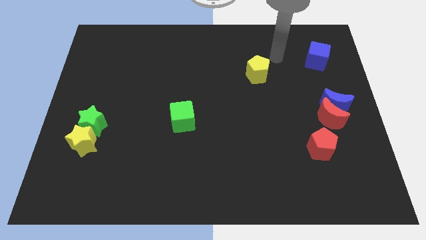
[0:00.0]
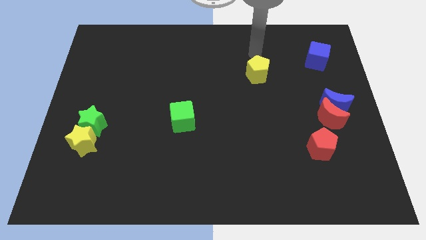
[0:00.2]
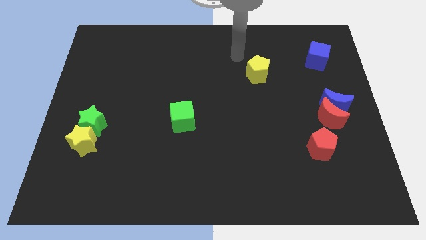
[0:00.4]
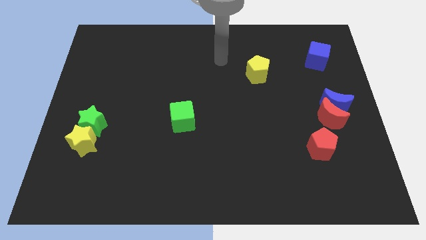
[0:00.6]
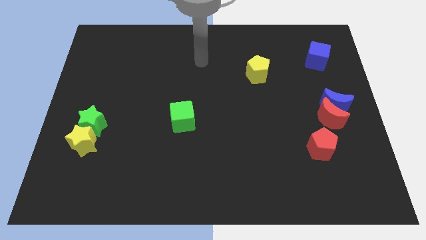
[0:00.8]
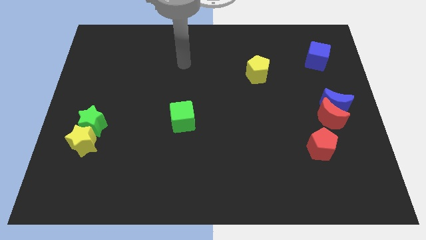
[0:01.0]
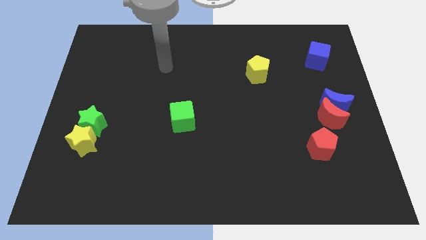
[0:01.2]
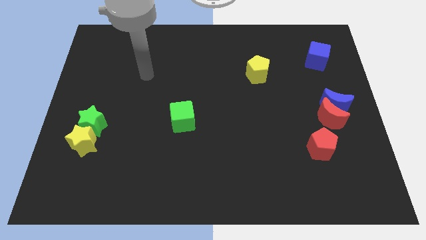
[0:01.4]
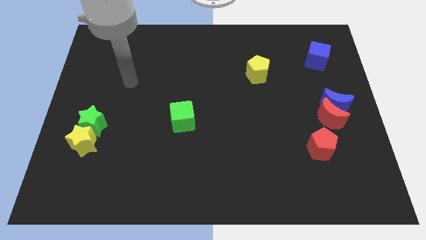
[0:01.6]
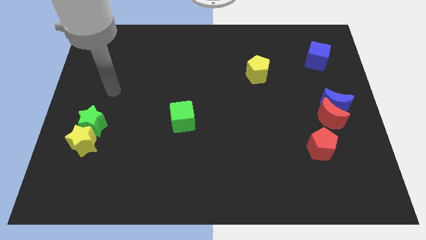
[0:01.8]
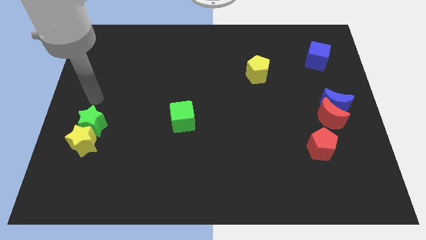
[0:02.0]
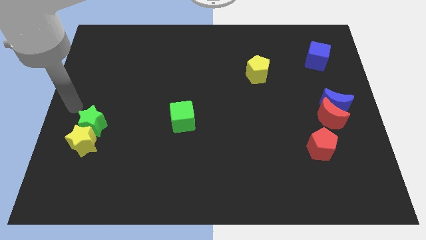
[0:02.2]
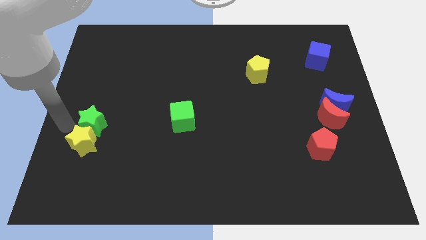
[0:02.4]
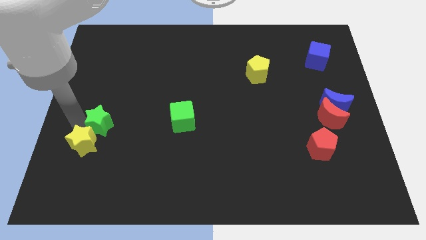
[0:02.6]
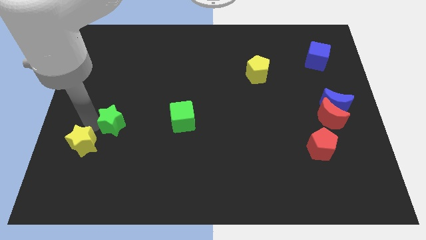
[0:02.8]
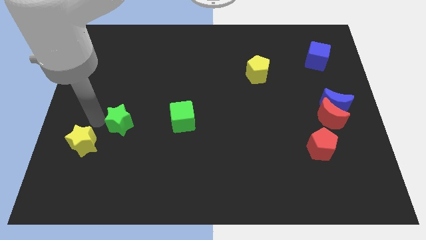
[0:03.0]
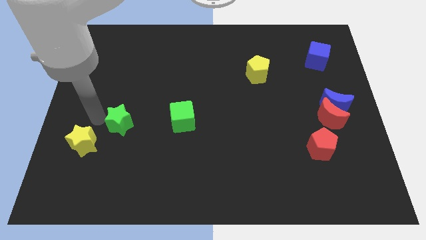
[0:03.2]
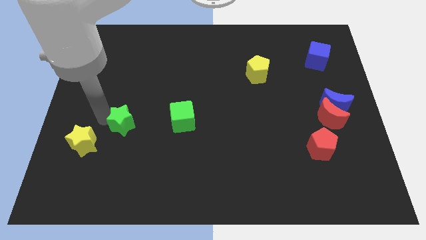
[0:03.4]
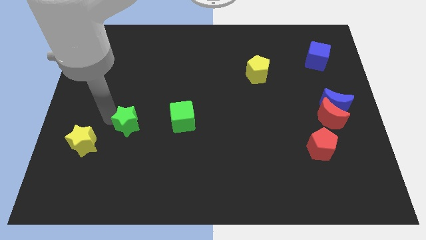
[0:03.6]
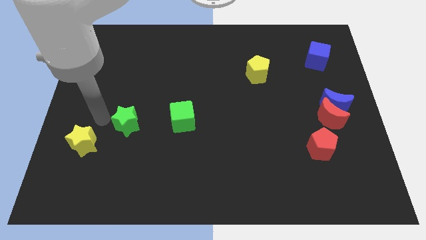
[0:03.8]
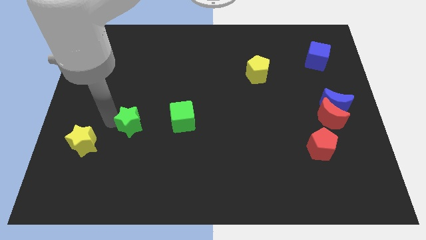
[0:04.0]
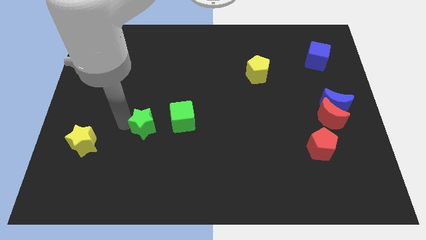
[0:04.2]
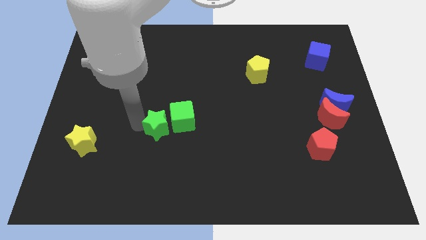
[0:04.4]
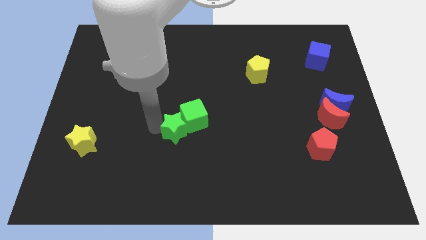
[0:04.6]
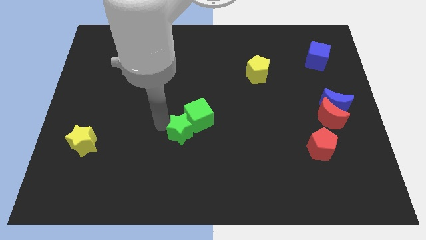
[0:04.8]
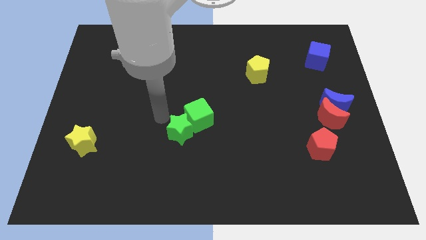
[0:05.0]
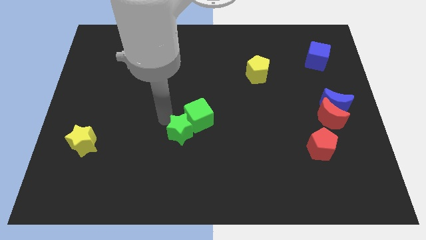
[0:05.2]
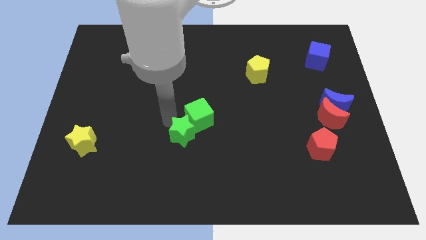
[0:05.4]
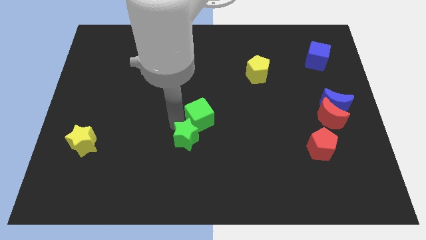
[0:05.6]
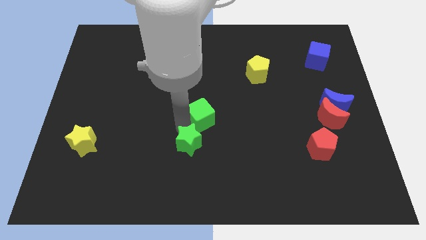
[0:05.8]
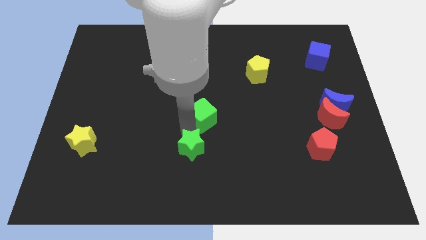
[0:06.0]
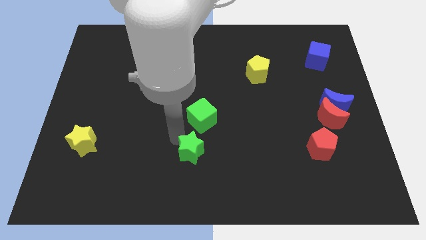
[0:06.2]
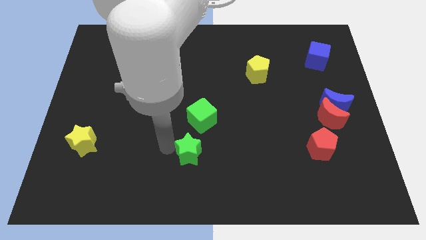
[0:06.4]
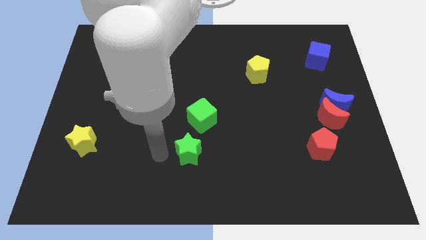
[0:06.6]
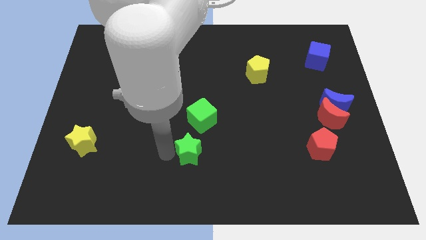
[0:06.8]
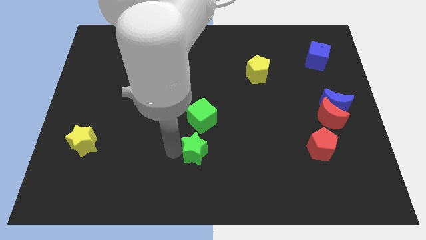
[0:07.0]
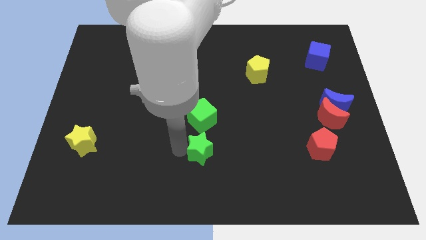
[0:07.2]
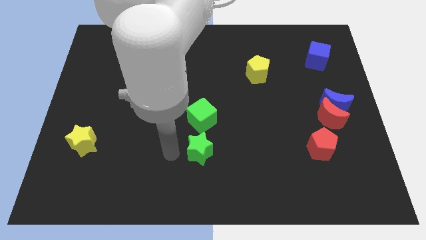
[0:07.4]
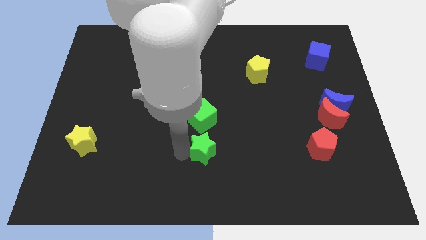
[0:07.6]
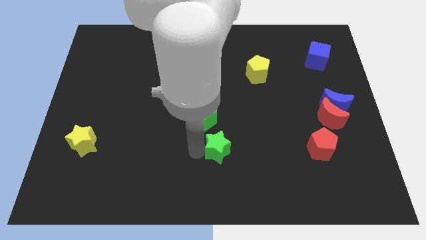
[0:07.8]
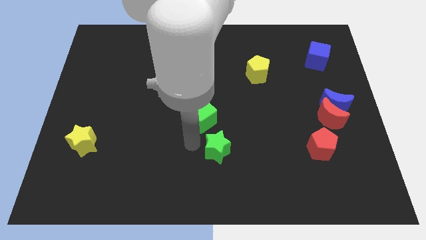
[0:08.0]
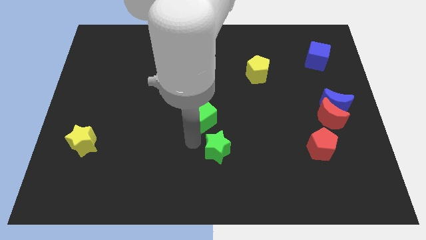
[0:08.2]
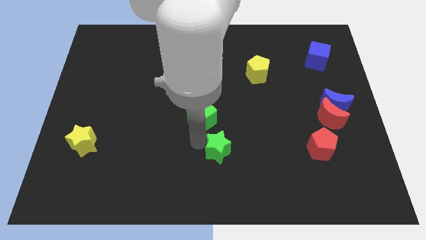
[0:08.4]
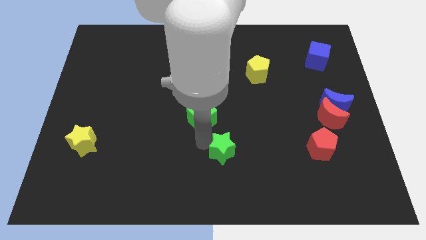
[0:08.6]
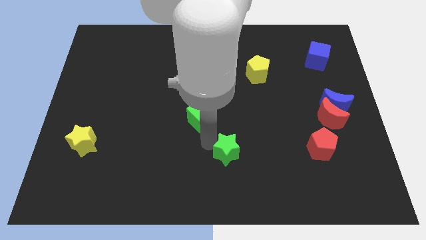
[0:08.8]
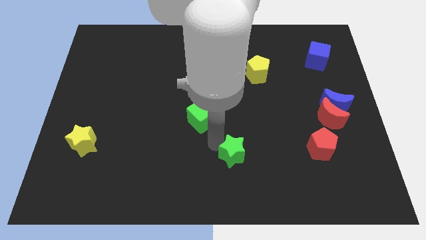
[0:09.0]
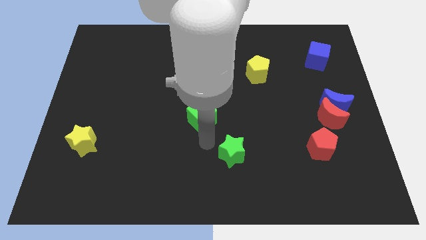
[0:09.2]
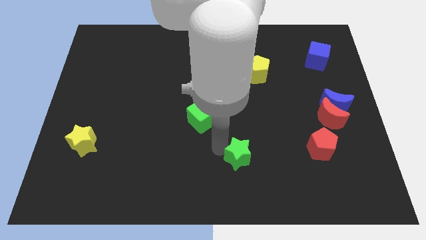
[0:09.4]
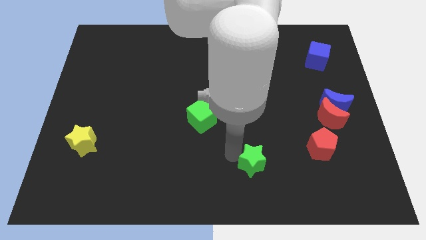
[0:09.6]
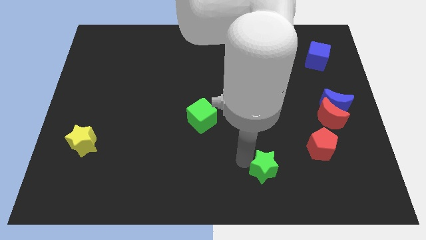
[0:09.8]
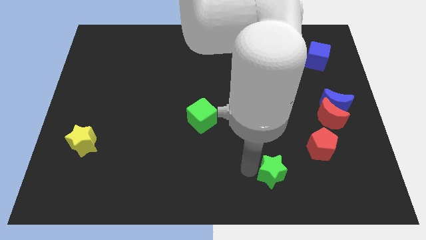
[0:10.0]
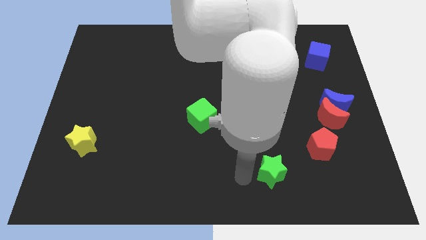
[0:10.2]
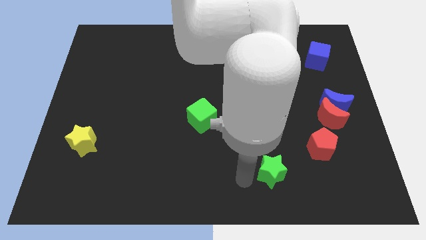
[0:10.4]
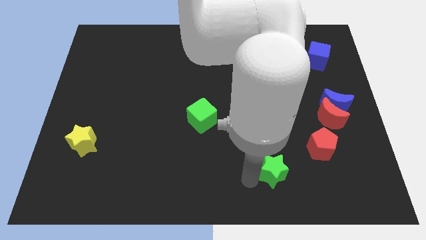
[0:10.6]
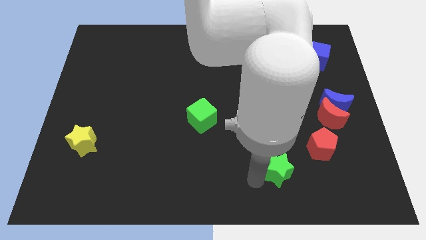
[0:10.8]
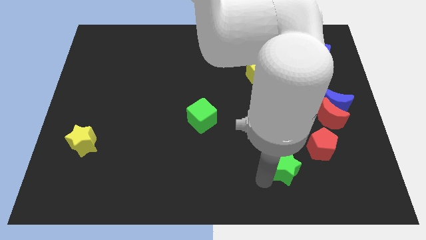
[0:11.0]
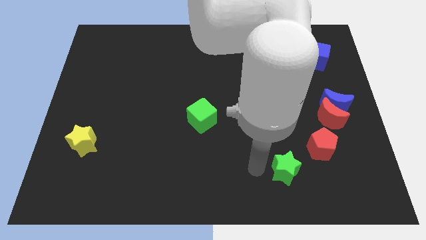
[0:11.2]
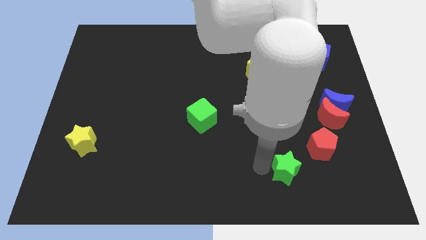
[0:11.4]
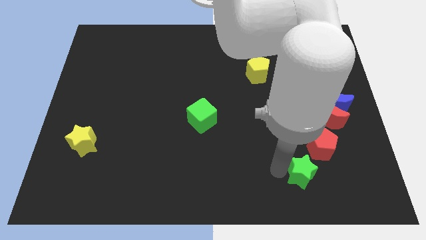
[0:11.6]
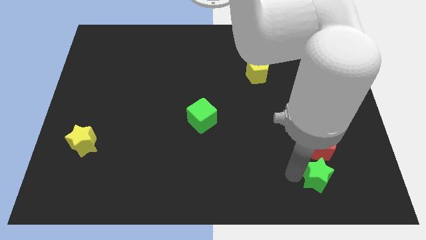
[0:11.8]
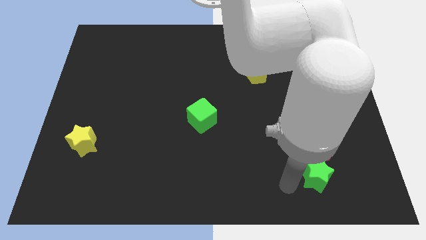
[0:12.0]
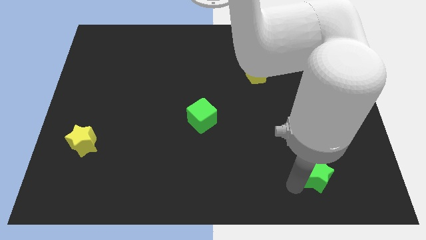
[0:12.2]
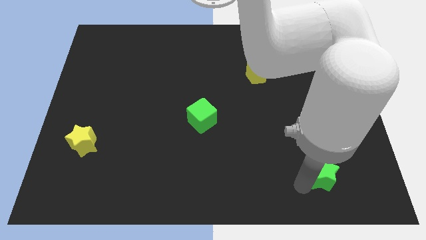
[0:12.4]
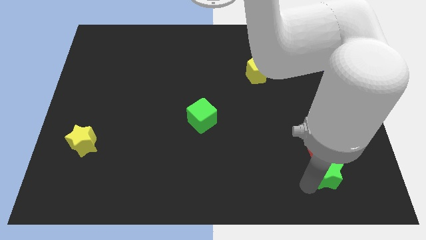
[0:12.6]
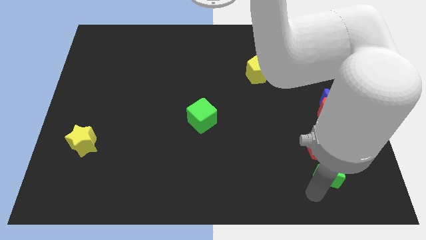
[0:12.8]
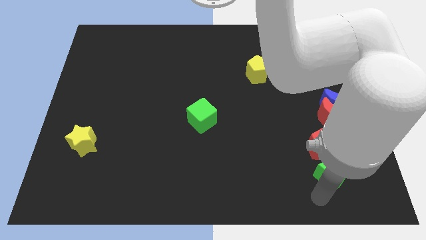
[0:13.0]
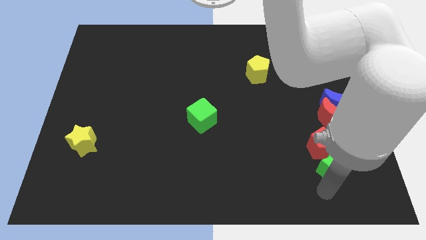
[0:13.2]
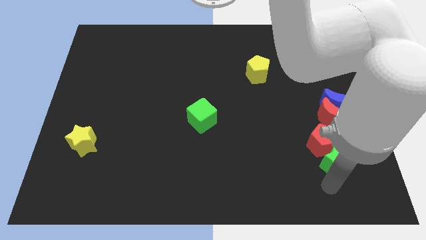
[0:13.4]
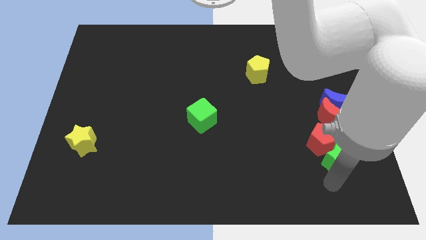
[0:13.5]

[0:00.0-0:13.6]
slide the green star to the bottom of the blue moon
